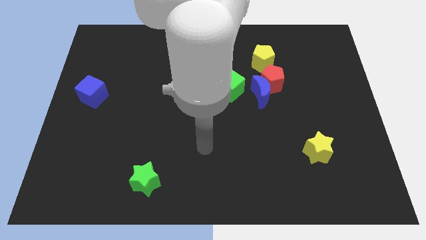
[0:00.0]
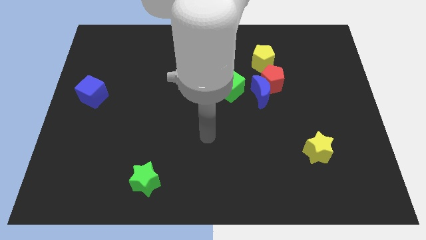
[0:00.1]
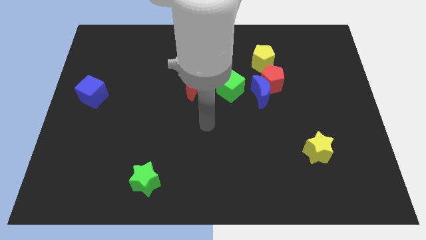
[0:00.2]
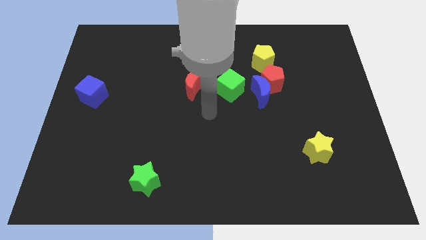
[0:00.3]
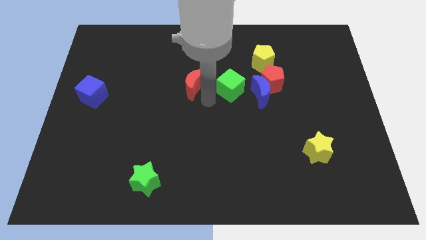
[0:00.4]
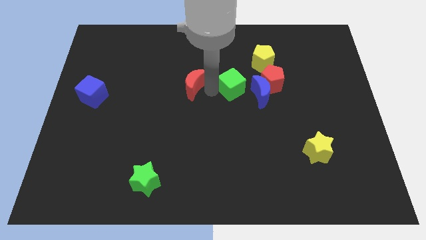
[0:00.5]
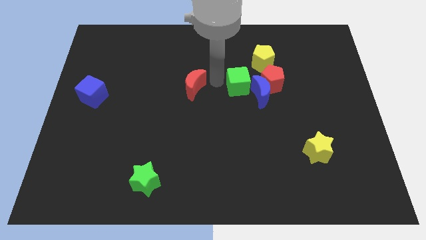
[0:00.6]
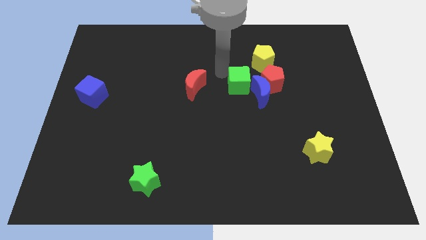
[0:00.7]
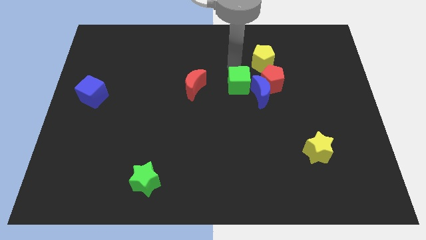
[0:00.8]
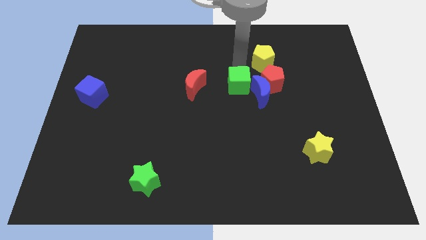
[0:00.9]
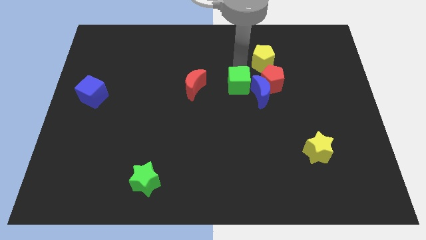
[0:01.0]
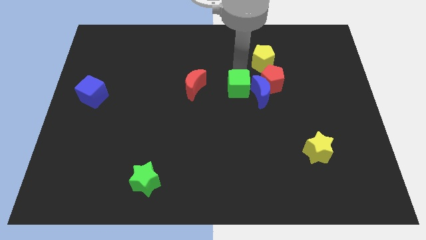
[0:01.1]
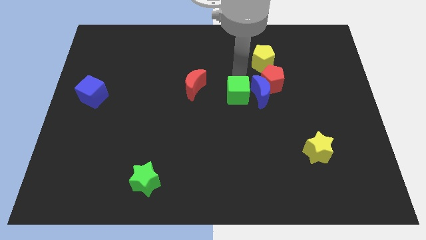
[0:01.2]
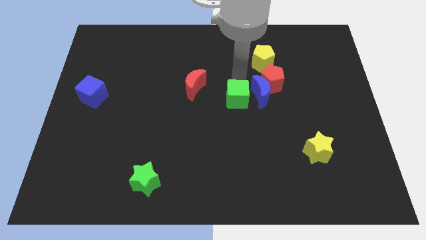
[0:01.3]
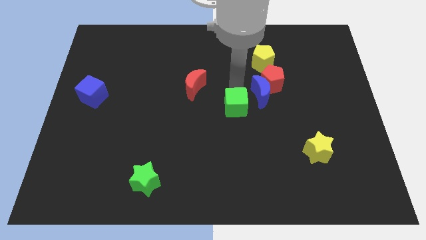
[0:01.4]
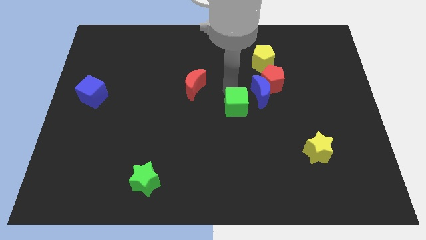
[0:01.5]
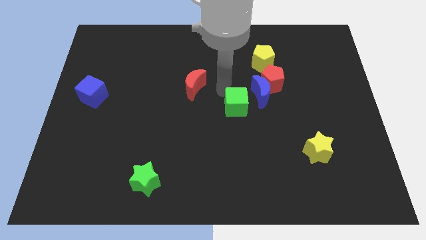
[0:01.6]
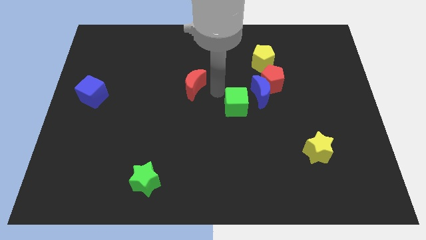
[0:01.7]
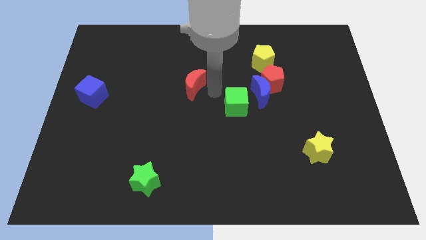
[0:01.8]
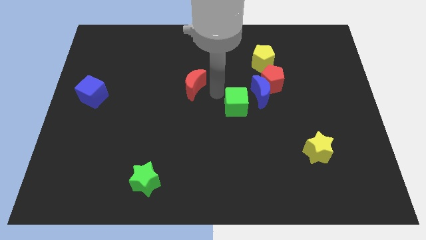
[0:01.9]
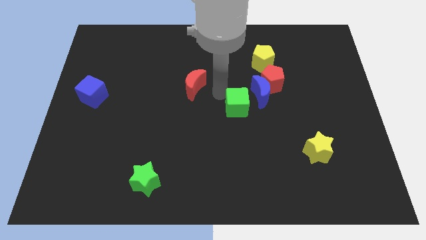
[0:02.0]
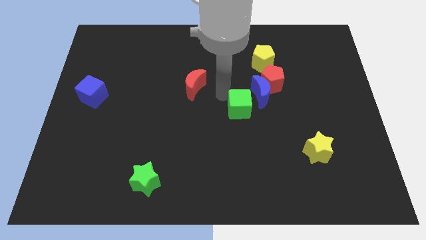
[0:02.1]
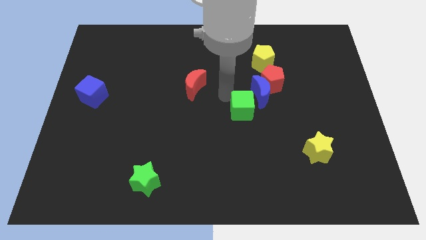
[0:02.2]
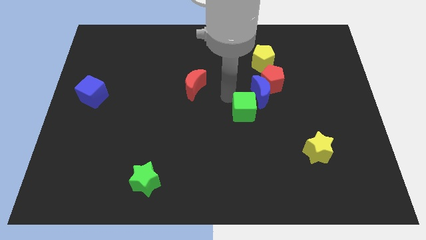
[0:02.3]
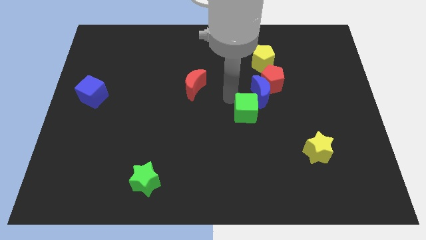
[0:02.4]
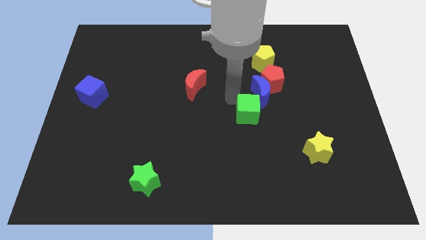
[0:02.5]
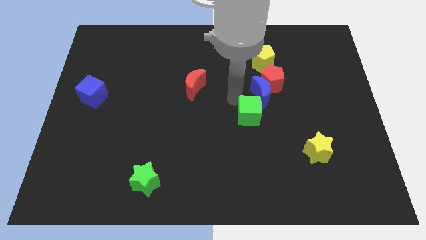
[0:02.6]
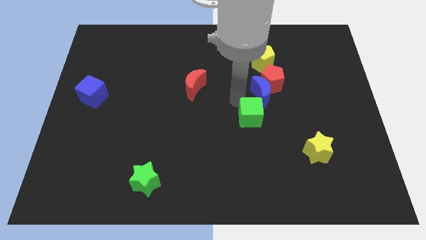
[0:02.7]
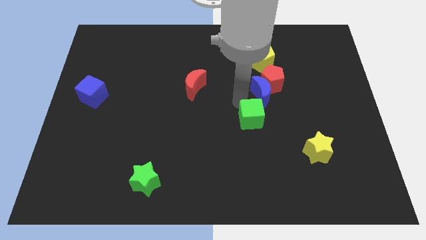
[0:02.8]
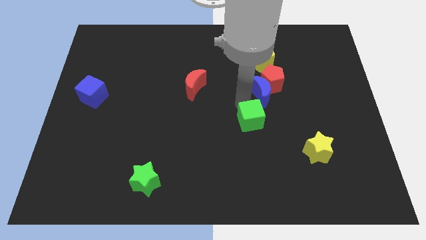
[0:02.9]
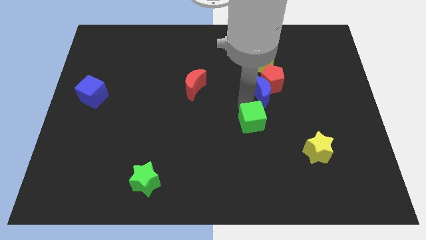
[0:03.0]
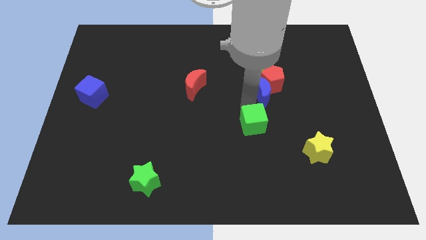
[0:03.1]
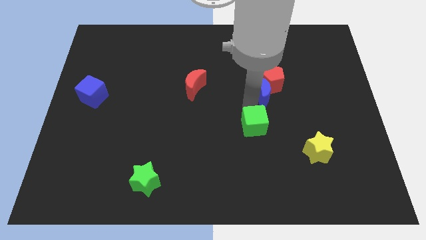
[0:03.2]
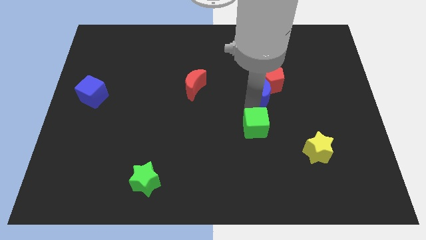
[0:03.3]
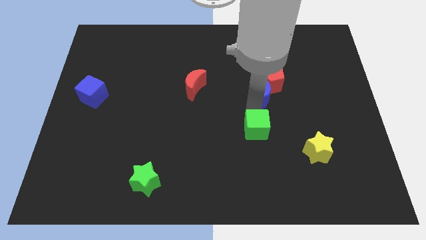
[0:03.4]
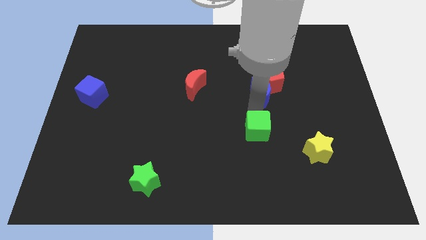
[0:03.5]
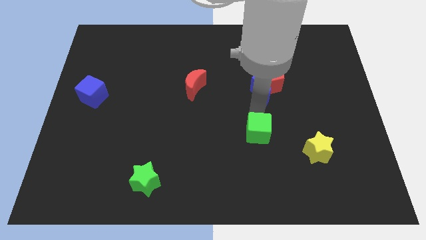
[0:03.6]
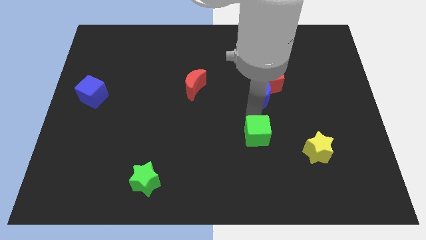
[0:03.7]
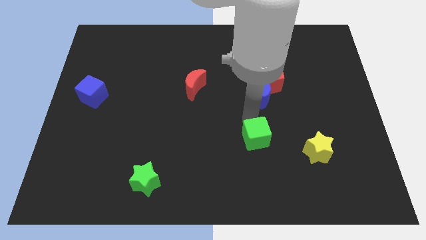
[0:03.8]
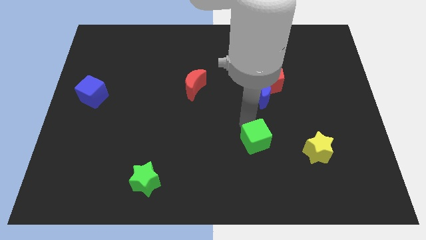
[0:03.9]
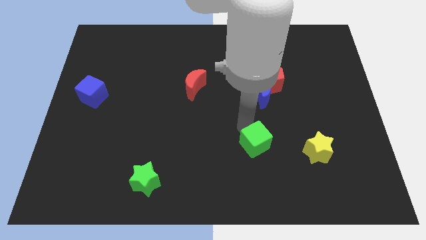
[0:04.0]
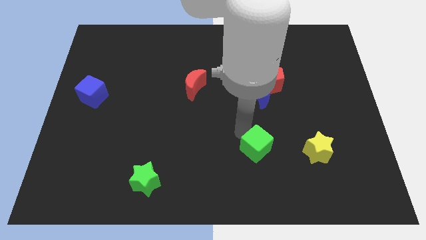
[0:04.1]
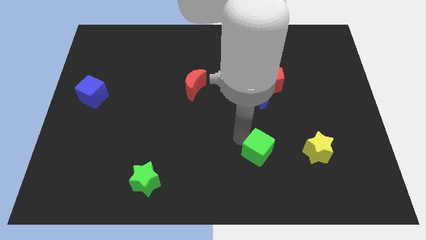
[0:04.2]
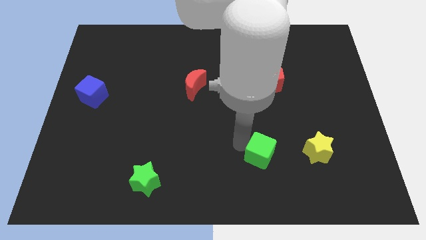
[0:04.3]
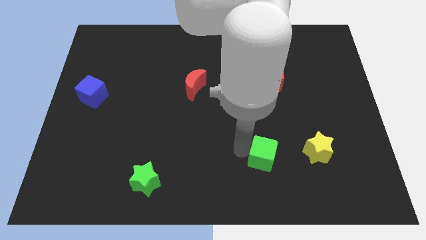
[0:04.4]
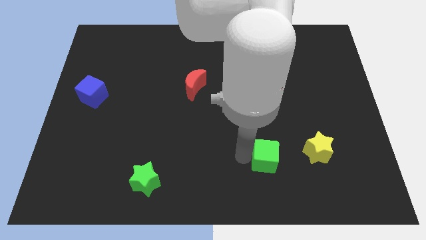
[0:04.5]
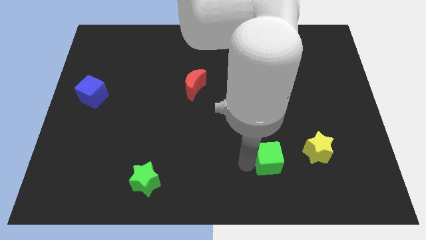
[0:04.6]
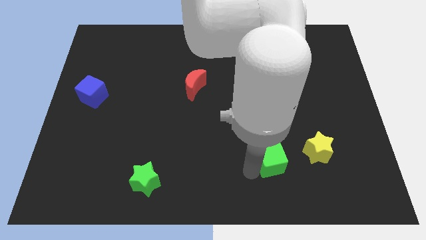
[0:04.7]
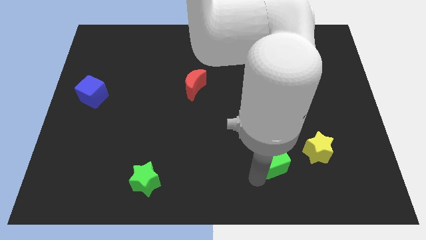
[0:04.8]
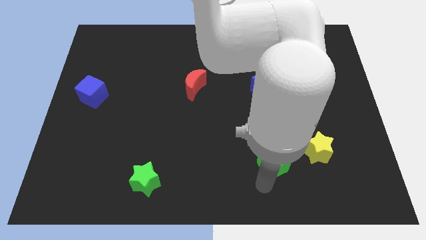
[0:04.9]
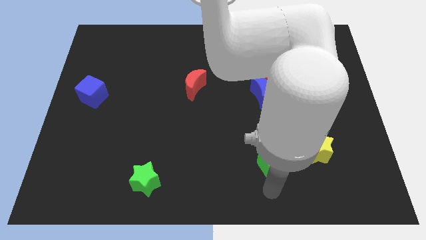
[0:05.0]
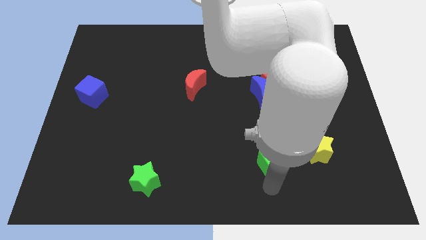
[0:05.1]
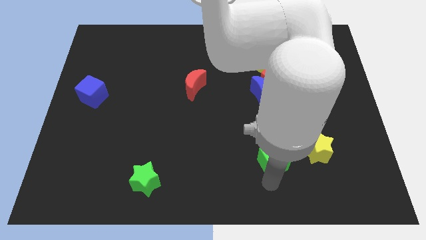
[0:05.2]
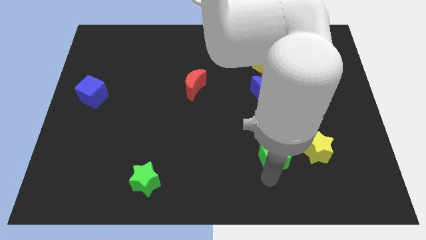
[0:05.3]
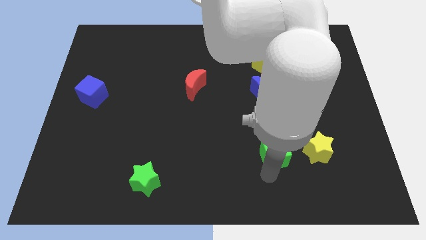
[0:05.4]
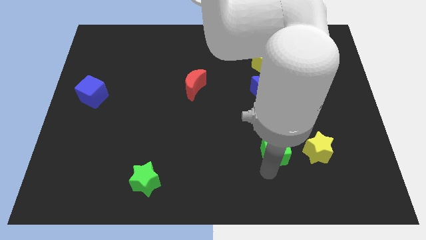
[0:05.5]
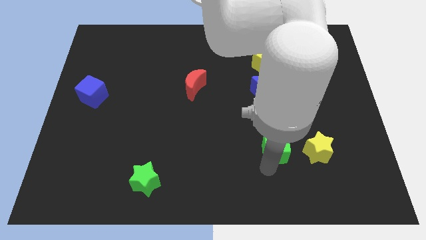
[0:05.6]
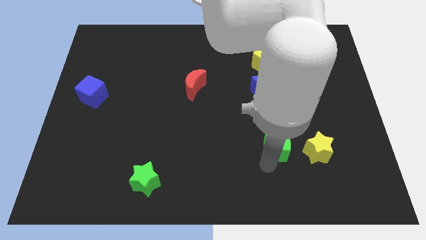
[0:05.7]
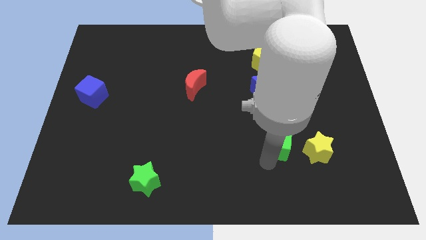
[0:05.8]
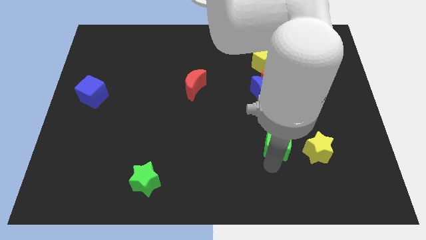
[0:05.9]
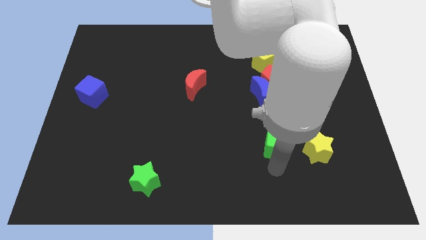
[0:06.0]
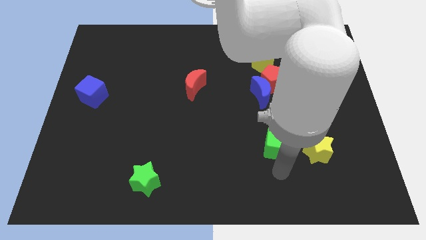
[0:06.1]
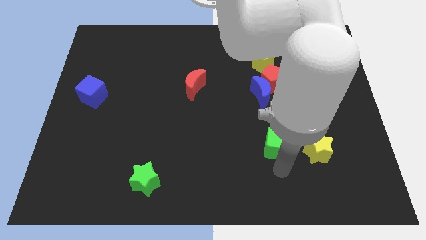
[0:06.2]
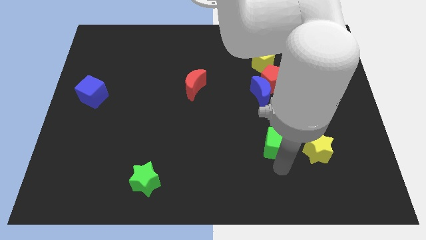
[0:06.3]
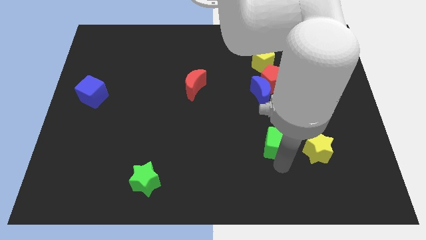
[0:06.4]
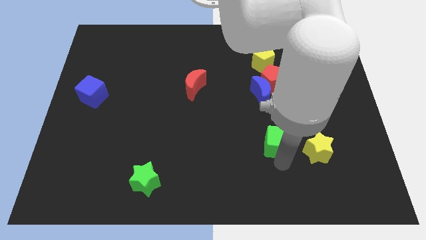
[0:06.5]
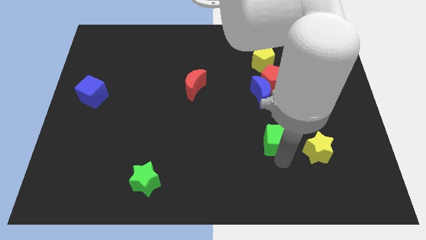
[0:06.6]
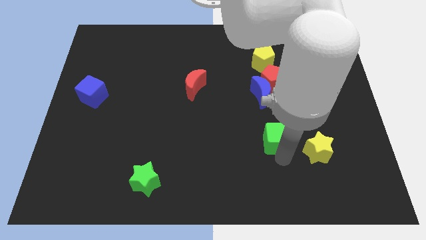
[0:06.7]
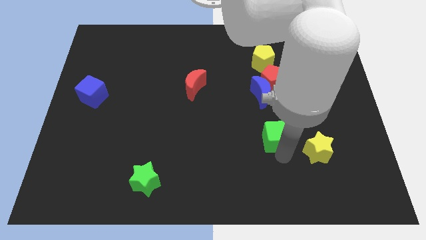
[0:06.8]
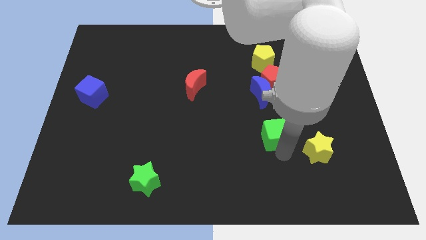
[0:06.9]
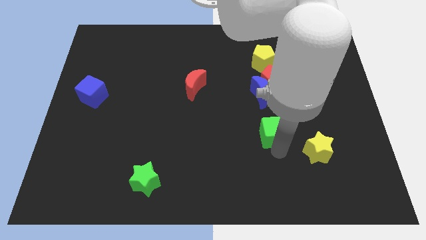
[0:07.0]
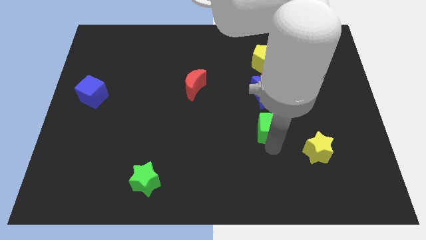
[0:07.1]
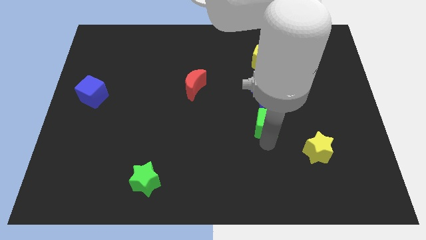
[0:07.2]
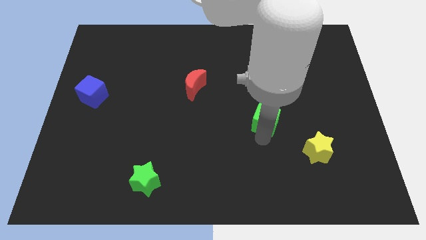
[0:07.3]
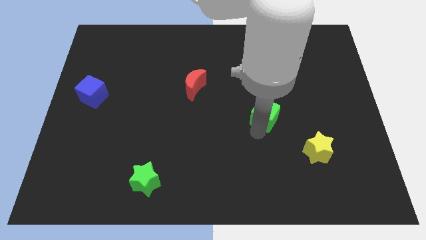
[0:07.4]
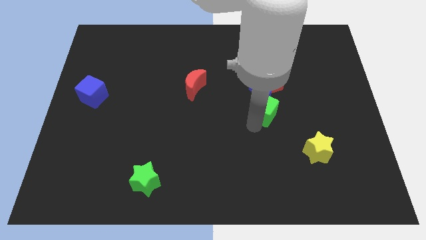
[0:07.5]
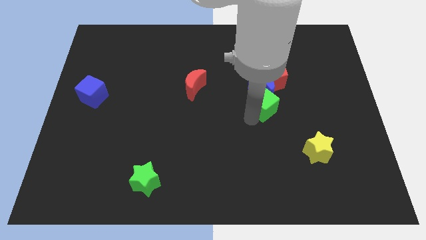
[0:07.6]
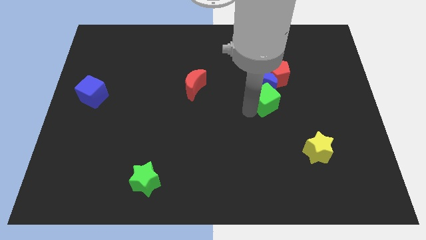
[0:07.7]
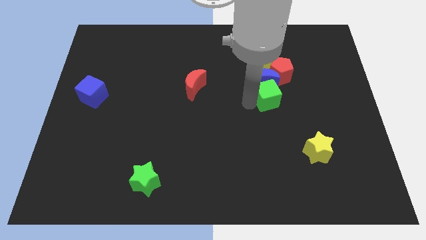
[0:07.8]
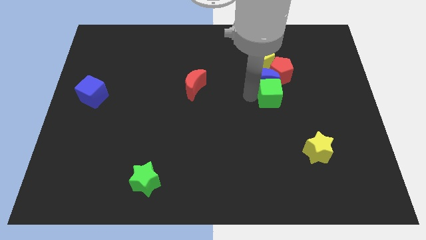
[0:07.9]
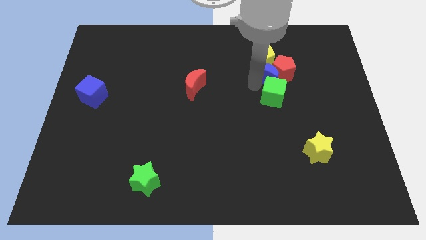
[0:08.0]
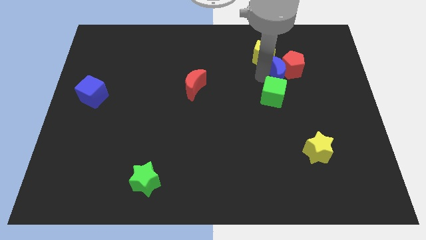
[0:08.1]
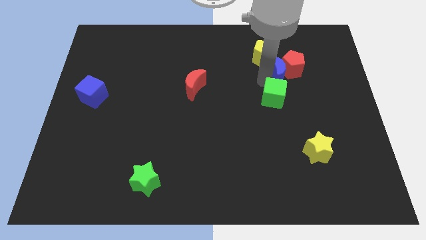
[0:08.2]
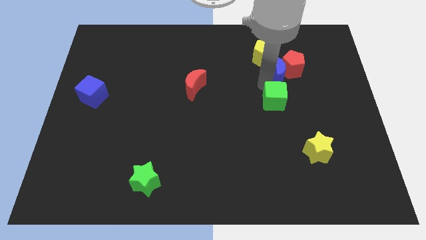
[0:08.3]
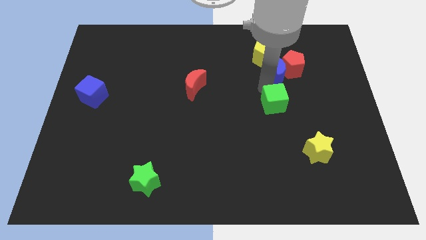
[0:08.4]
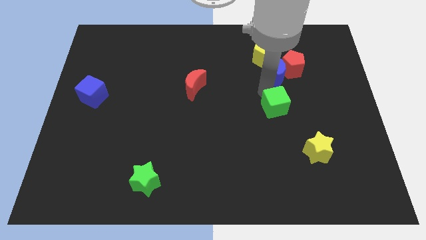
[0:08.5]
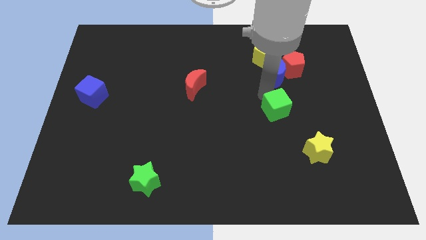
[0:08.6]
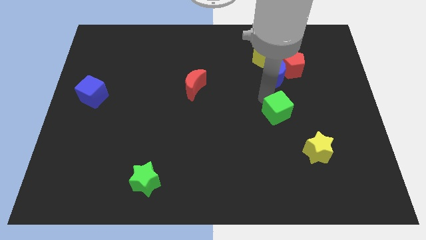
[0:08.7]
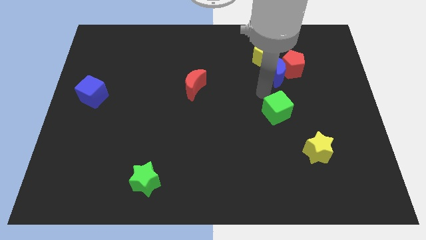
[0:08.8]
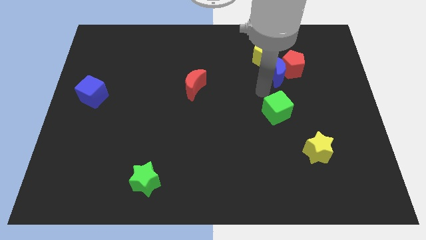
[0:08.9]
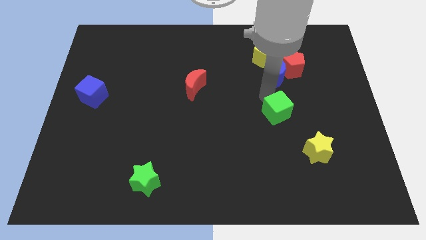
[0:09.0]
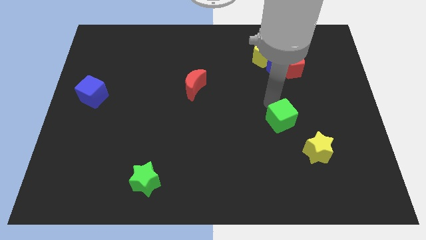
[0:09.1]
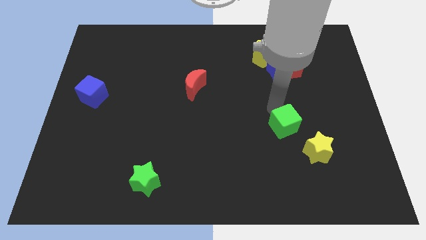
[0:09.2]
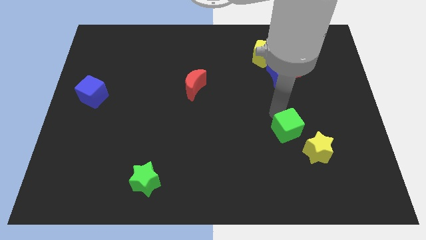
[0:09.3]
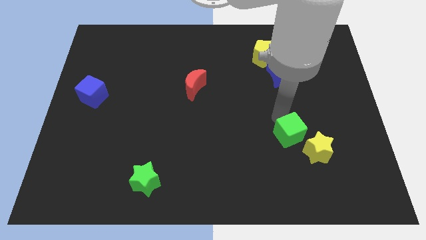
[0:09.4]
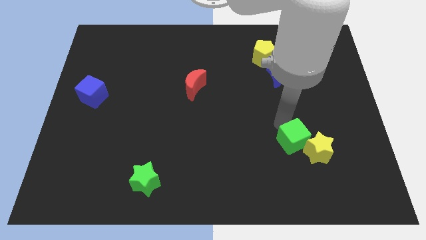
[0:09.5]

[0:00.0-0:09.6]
slide the green cube towards the yellow star
